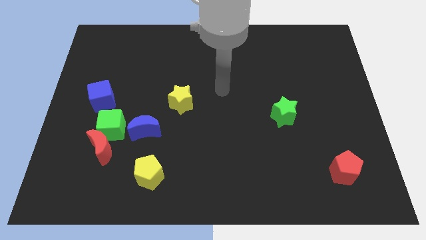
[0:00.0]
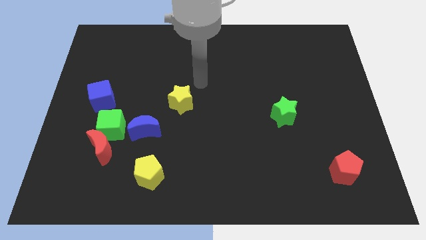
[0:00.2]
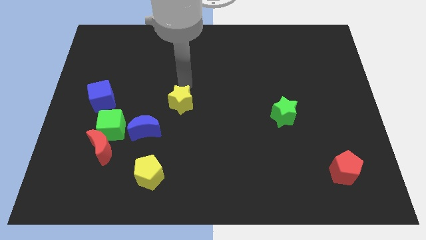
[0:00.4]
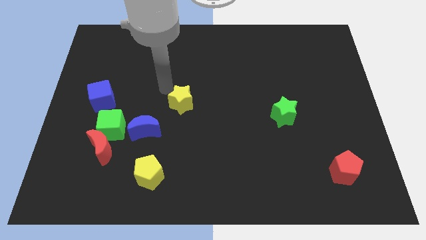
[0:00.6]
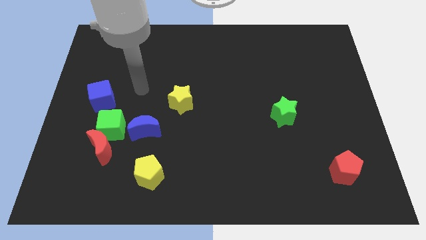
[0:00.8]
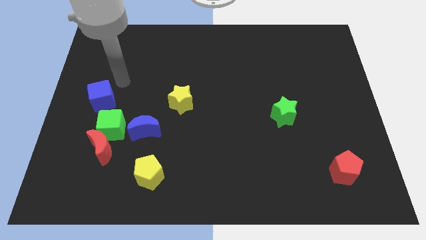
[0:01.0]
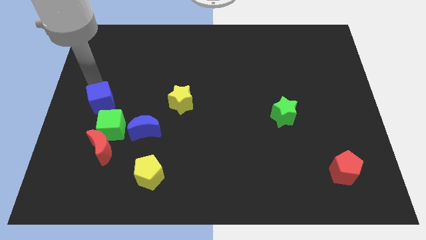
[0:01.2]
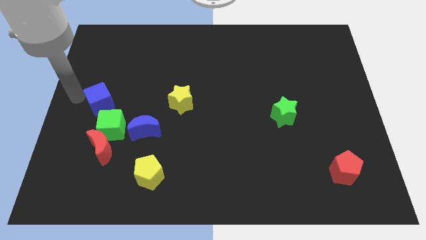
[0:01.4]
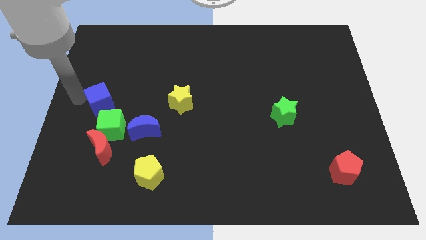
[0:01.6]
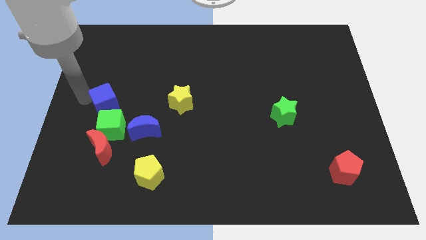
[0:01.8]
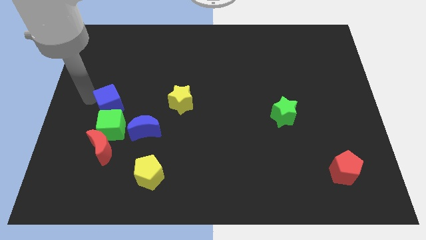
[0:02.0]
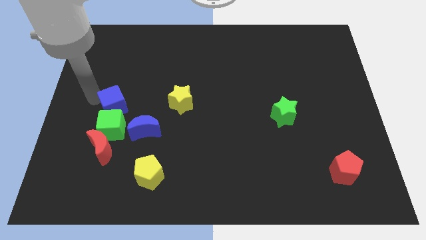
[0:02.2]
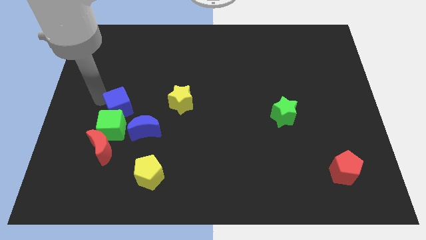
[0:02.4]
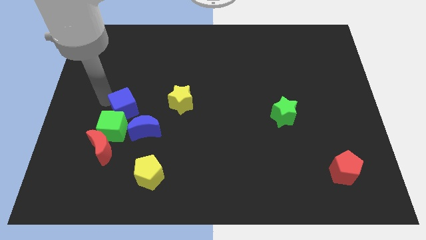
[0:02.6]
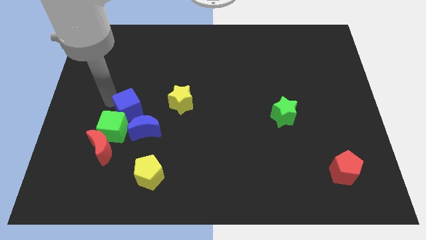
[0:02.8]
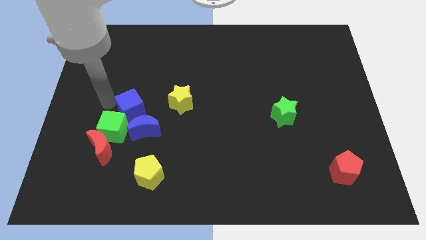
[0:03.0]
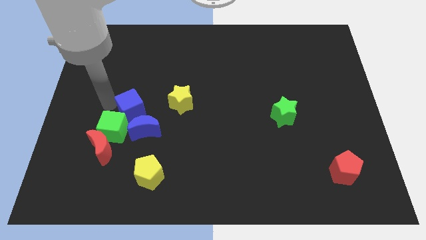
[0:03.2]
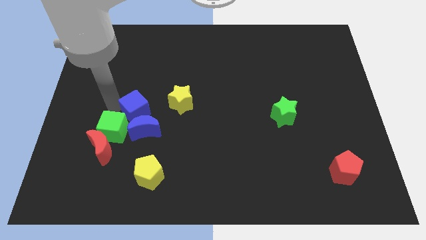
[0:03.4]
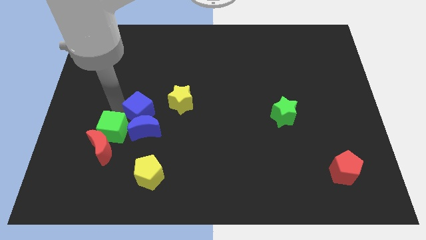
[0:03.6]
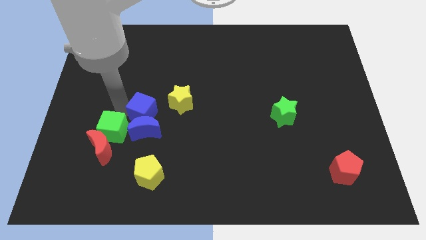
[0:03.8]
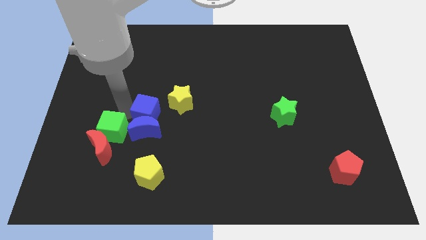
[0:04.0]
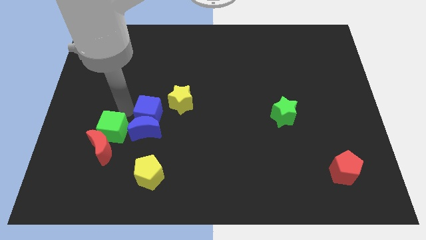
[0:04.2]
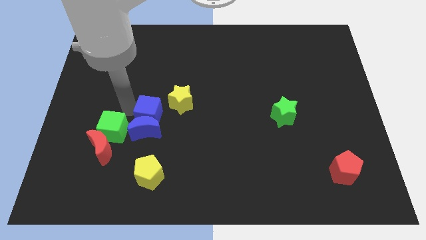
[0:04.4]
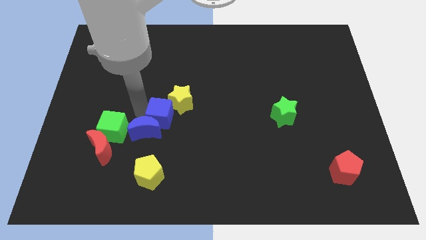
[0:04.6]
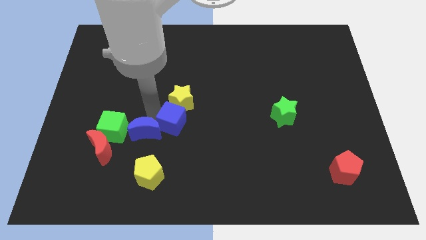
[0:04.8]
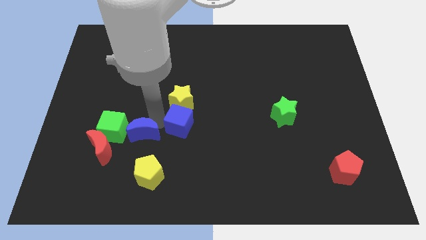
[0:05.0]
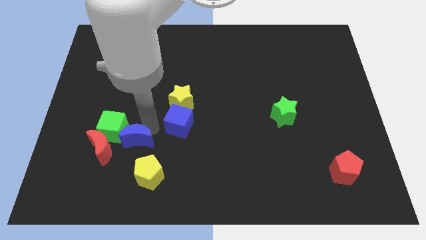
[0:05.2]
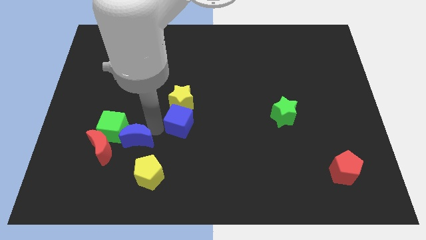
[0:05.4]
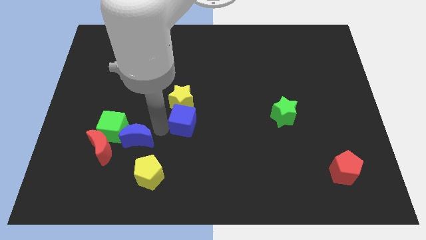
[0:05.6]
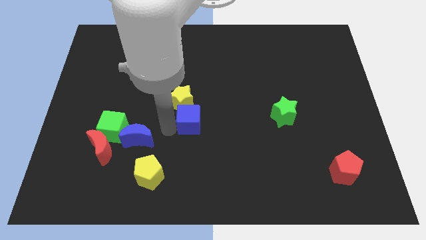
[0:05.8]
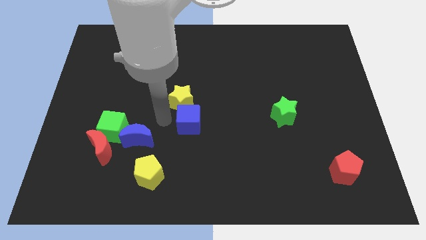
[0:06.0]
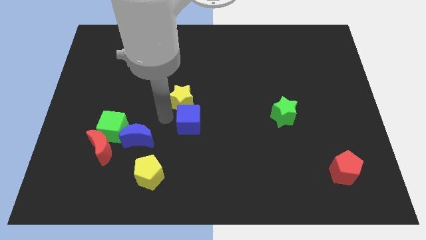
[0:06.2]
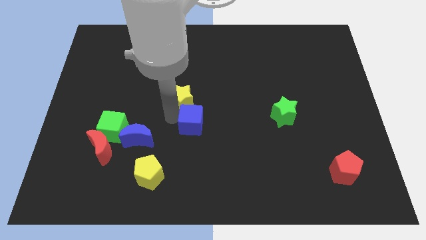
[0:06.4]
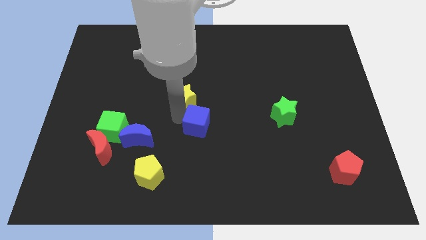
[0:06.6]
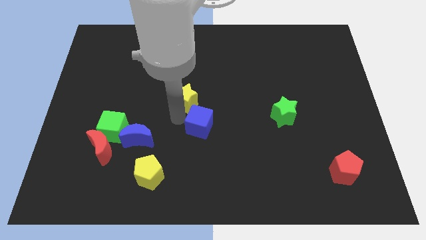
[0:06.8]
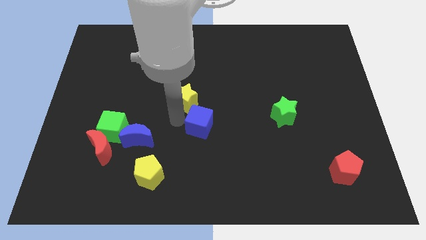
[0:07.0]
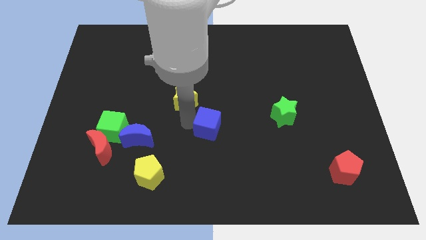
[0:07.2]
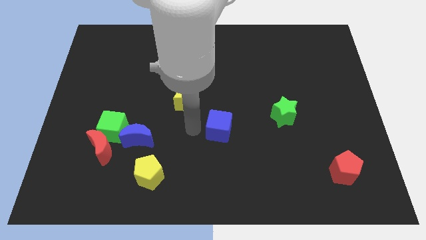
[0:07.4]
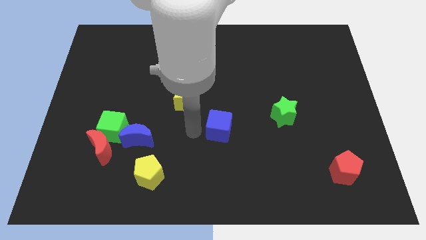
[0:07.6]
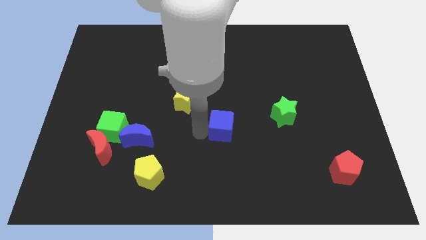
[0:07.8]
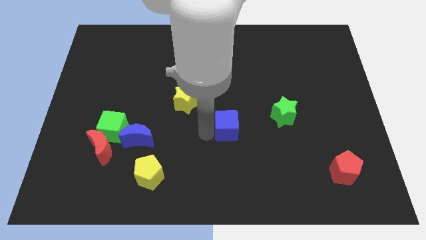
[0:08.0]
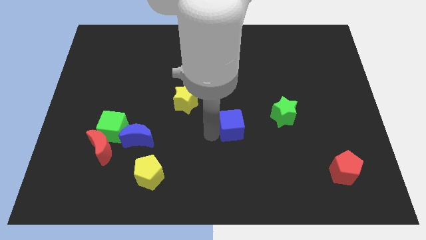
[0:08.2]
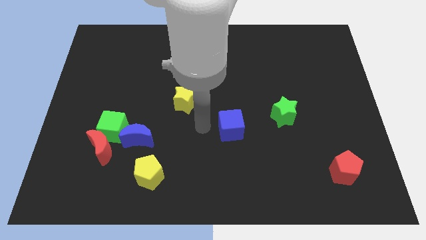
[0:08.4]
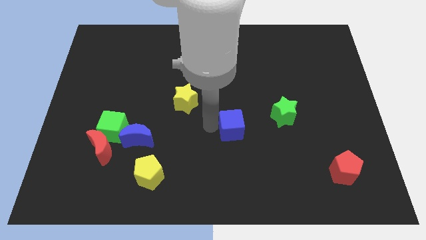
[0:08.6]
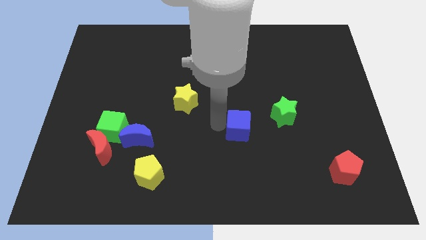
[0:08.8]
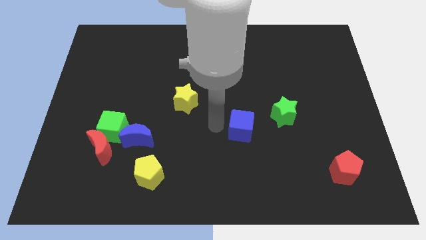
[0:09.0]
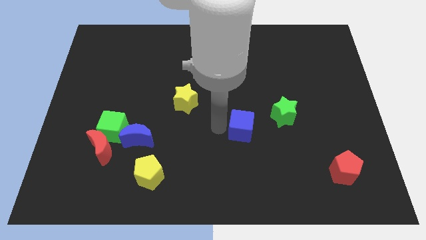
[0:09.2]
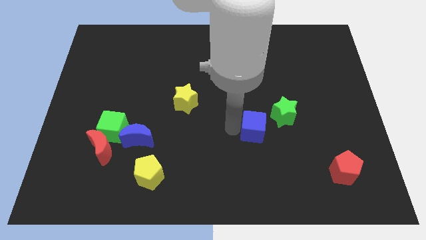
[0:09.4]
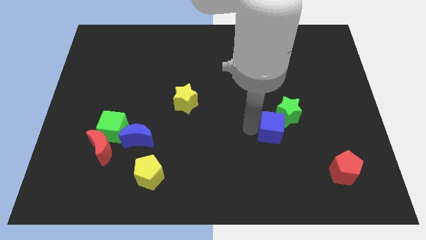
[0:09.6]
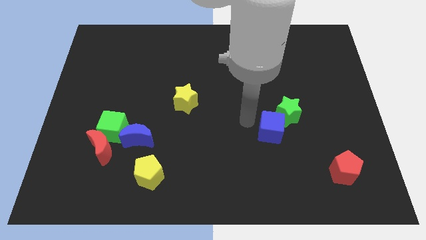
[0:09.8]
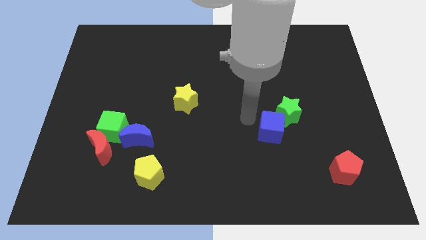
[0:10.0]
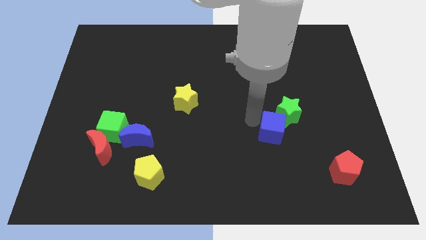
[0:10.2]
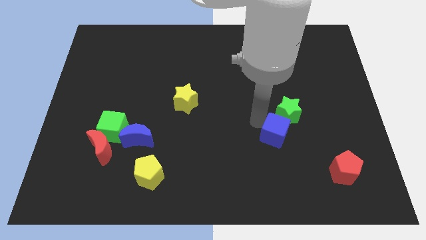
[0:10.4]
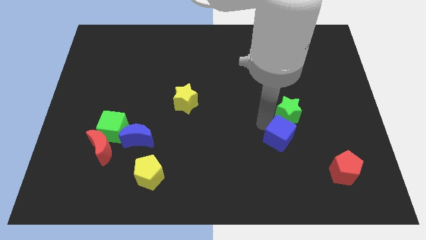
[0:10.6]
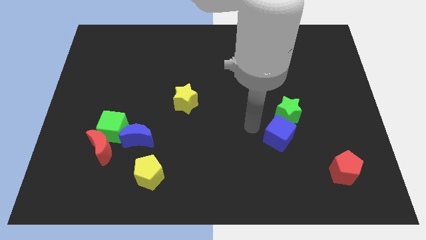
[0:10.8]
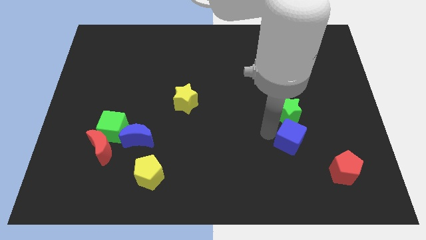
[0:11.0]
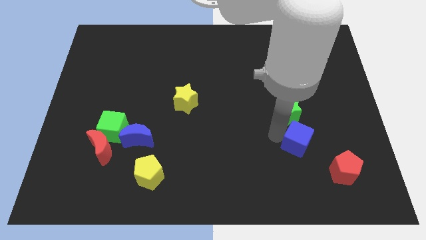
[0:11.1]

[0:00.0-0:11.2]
slide the blue cube to the top left of the red pentagon

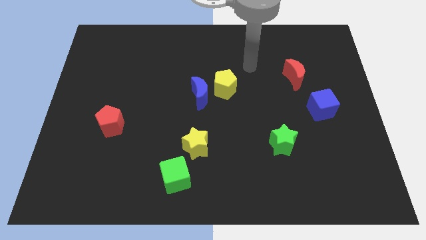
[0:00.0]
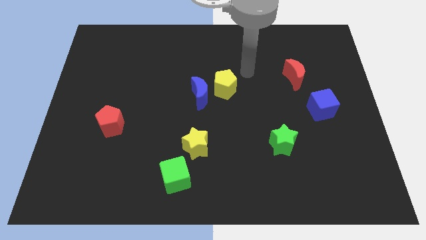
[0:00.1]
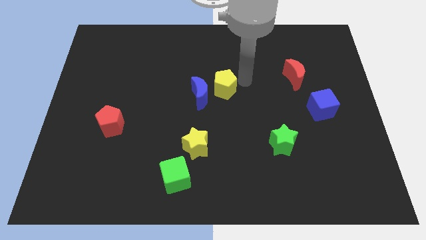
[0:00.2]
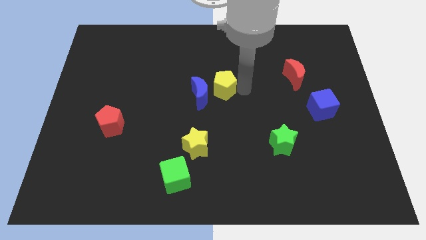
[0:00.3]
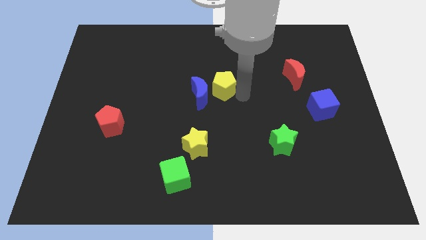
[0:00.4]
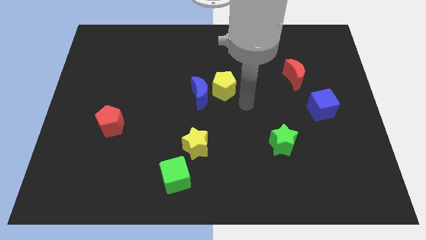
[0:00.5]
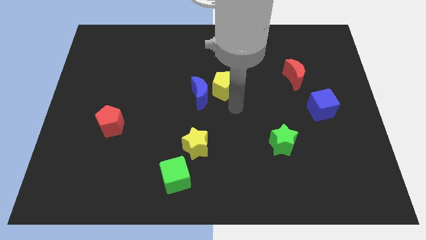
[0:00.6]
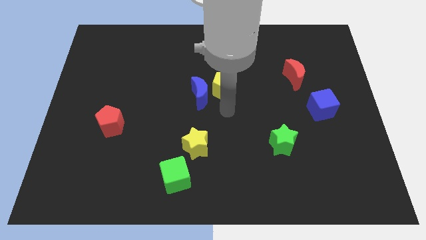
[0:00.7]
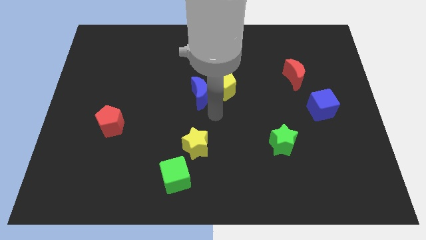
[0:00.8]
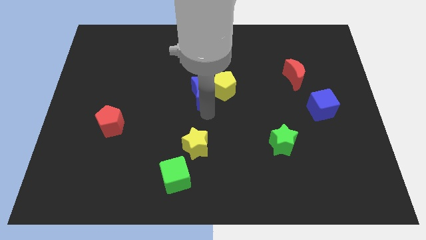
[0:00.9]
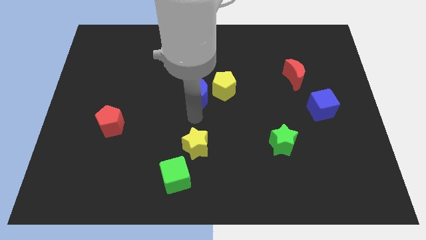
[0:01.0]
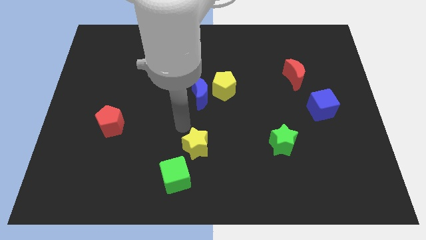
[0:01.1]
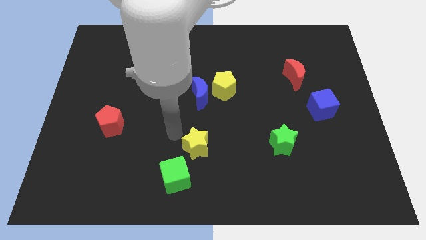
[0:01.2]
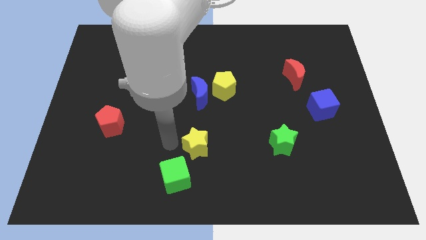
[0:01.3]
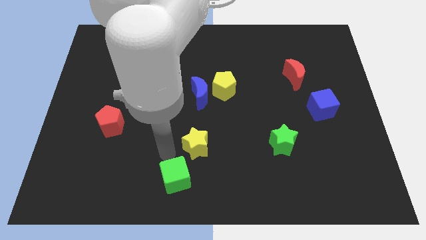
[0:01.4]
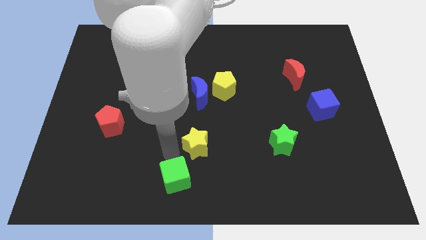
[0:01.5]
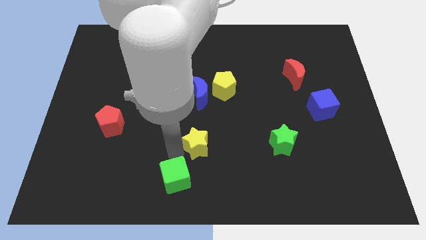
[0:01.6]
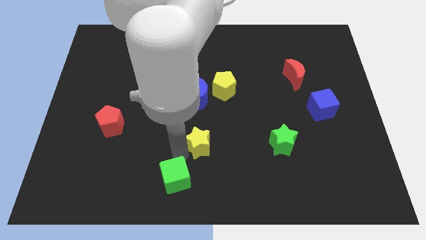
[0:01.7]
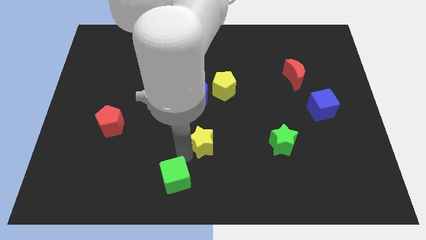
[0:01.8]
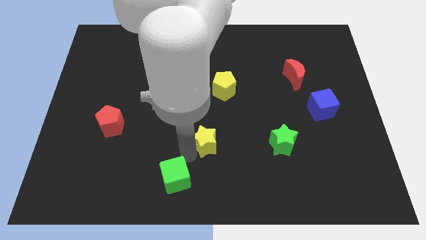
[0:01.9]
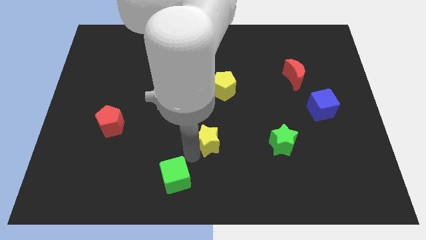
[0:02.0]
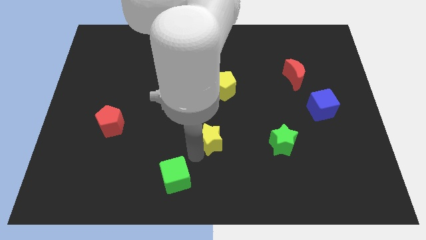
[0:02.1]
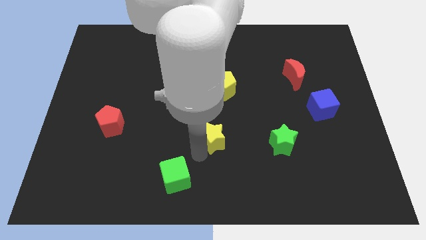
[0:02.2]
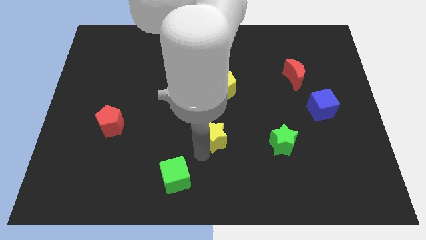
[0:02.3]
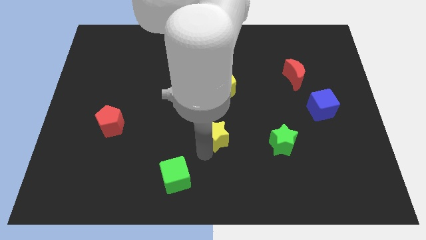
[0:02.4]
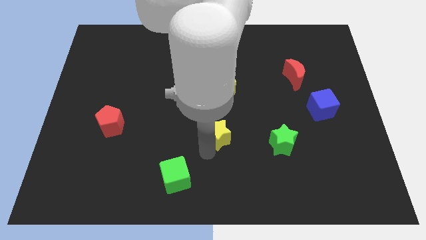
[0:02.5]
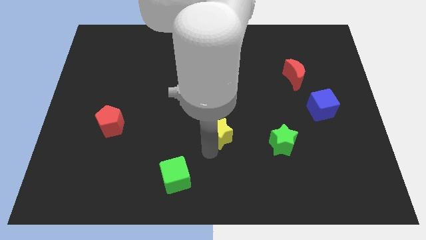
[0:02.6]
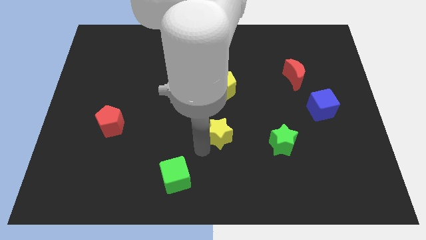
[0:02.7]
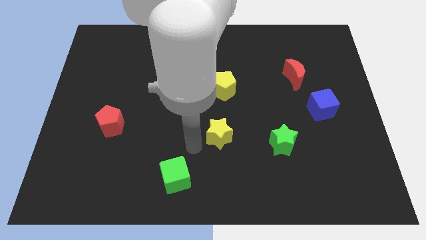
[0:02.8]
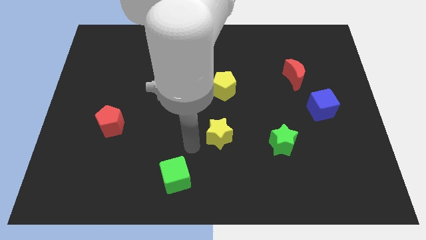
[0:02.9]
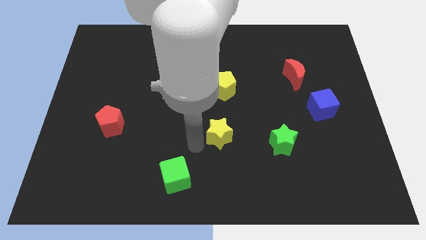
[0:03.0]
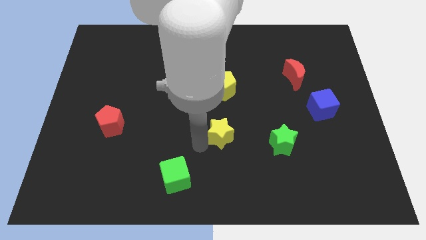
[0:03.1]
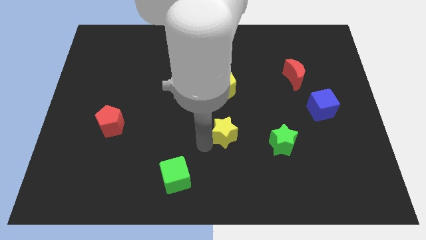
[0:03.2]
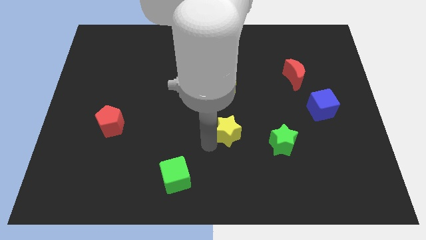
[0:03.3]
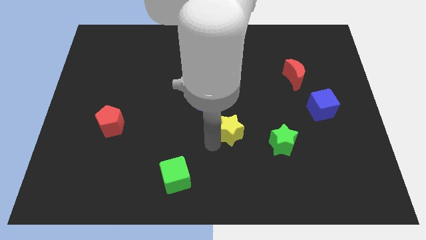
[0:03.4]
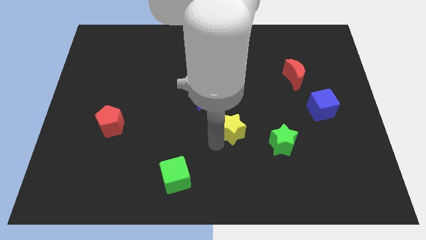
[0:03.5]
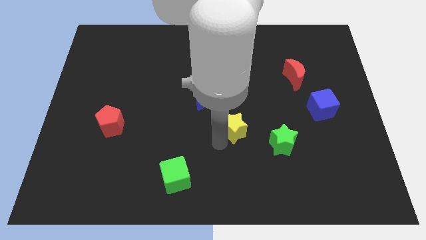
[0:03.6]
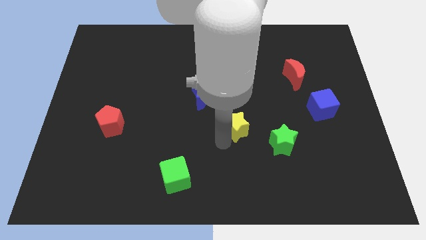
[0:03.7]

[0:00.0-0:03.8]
move the yellow star to the top left side of the green star
